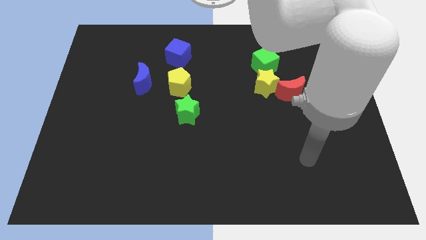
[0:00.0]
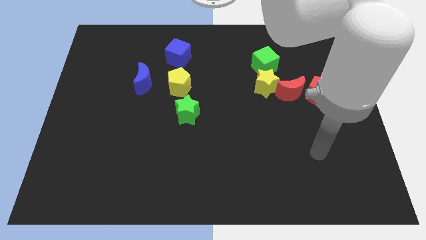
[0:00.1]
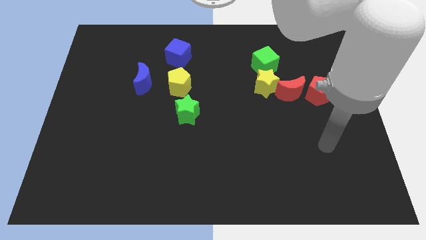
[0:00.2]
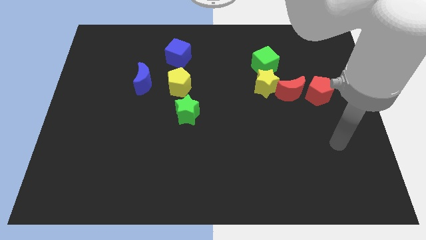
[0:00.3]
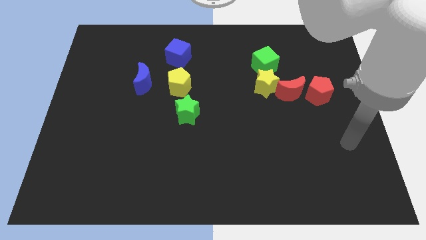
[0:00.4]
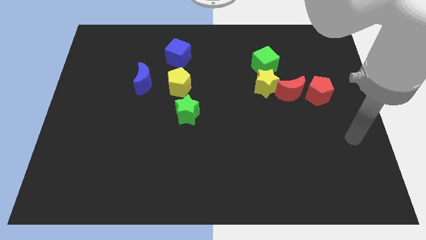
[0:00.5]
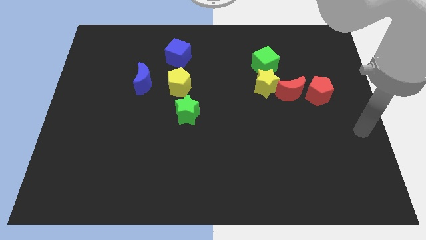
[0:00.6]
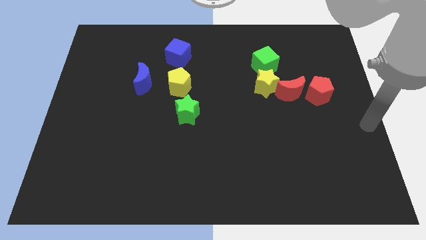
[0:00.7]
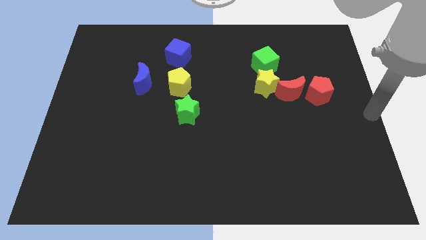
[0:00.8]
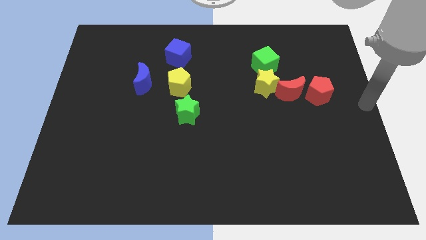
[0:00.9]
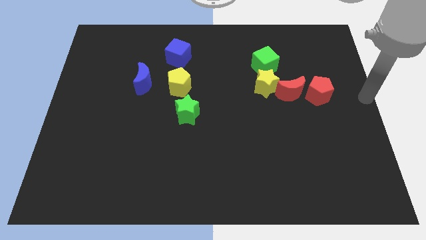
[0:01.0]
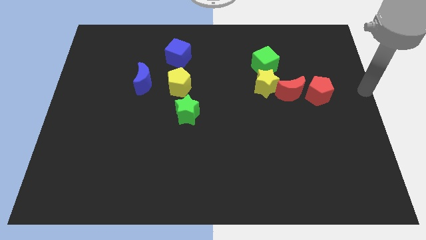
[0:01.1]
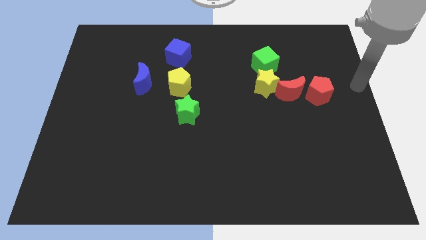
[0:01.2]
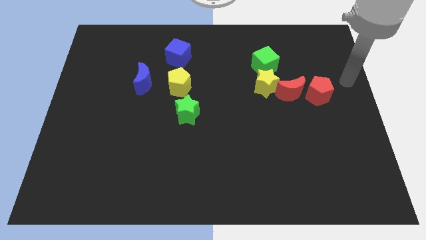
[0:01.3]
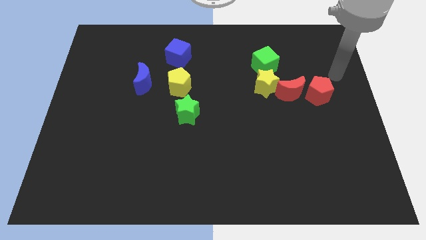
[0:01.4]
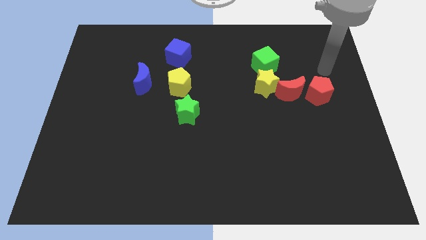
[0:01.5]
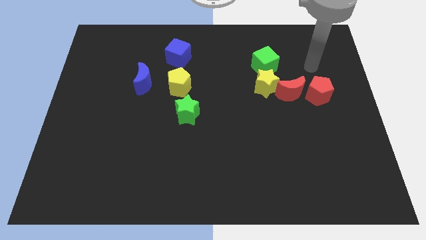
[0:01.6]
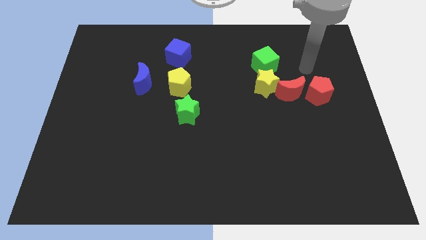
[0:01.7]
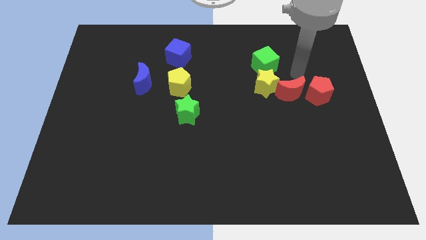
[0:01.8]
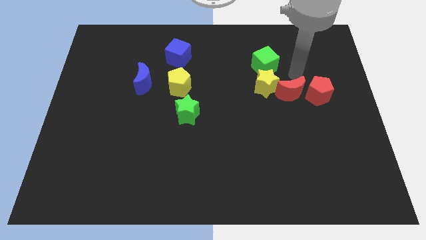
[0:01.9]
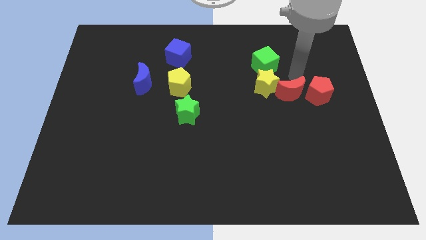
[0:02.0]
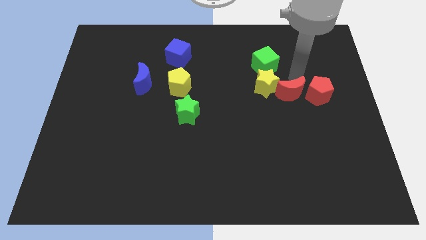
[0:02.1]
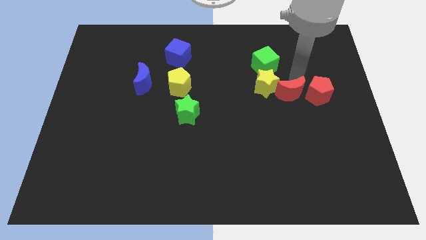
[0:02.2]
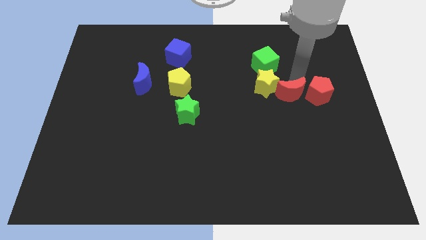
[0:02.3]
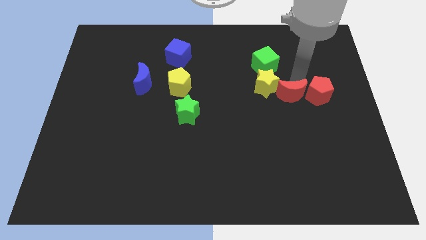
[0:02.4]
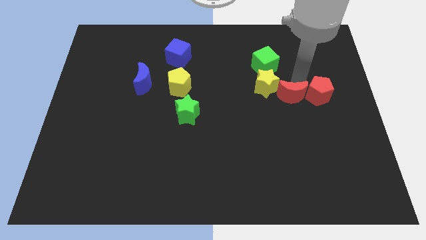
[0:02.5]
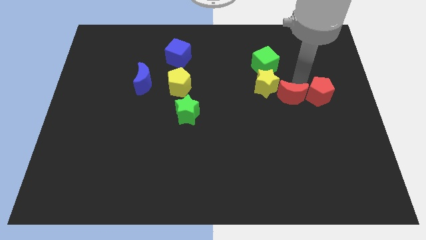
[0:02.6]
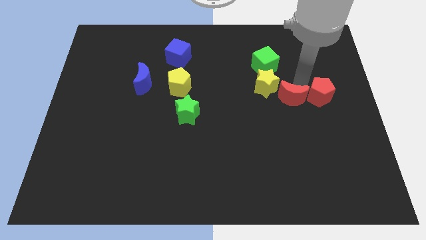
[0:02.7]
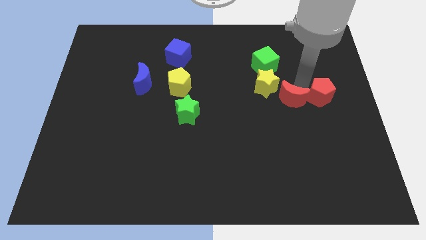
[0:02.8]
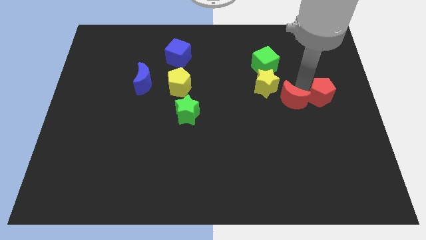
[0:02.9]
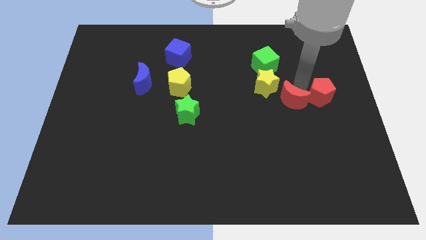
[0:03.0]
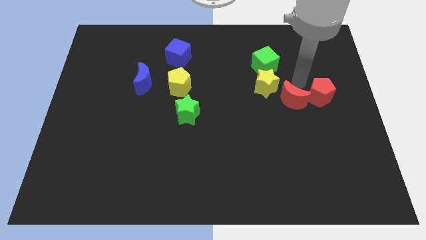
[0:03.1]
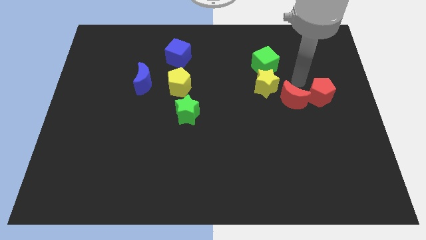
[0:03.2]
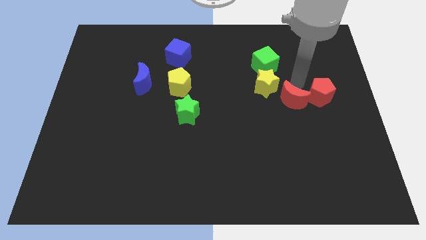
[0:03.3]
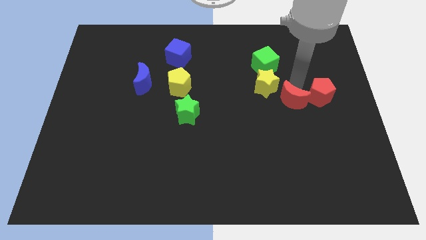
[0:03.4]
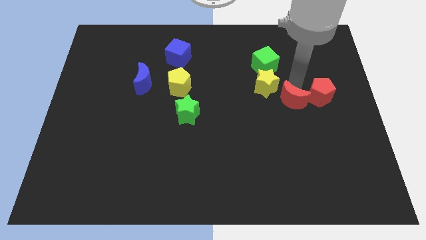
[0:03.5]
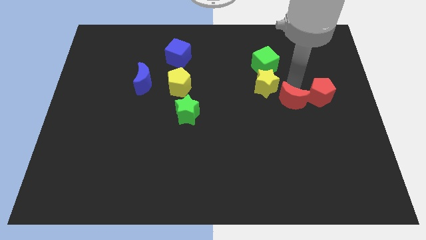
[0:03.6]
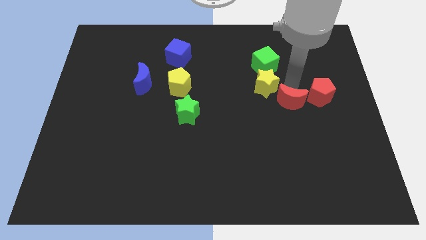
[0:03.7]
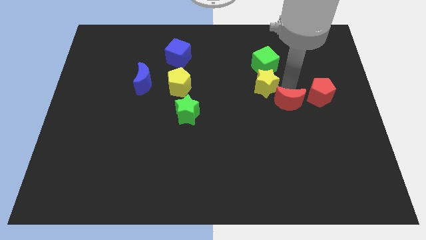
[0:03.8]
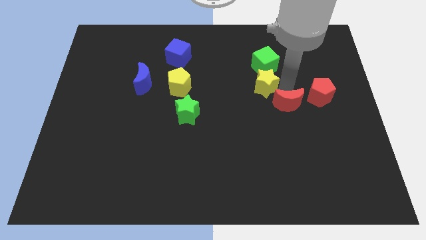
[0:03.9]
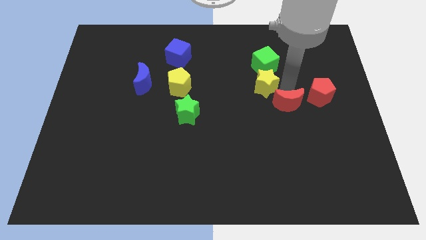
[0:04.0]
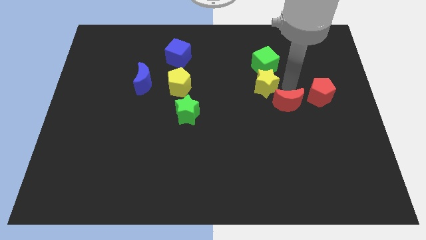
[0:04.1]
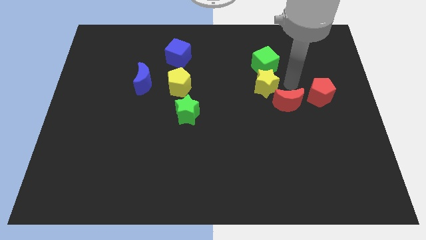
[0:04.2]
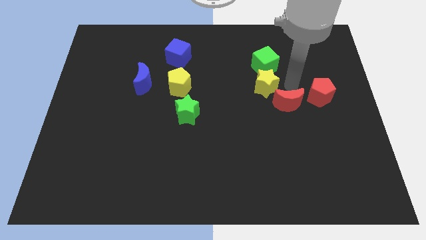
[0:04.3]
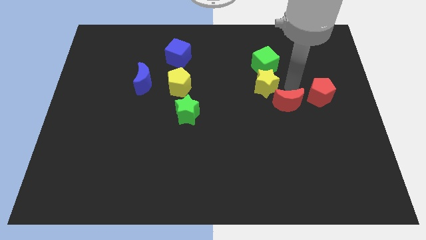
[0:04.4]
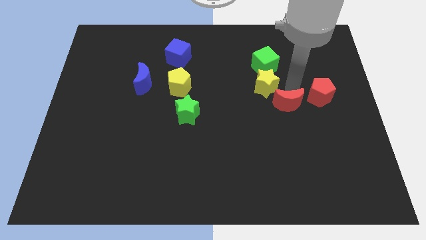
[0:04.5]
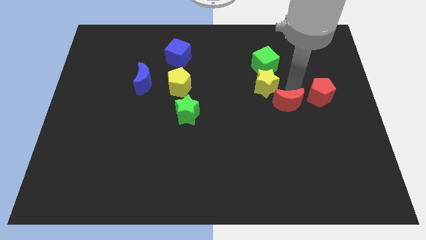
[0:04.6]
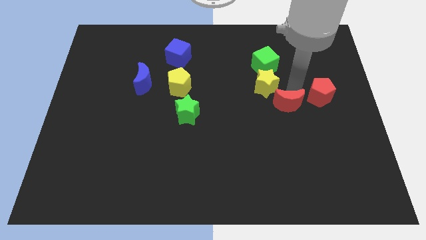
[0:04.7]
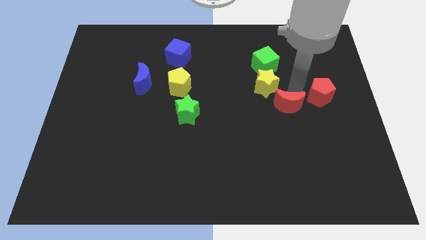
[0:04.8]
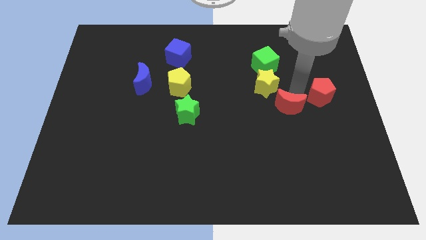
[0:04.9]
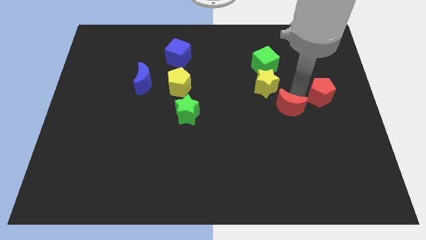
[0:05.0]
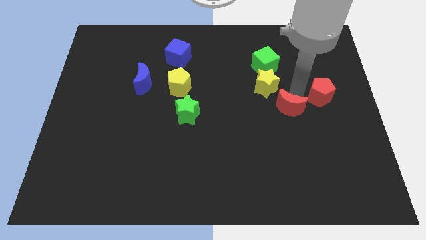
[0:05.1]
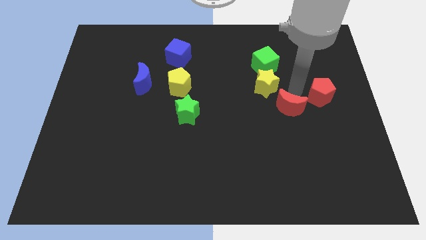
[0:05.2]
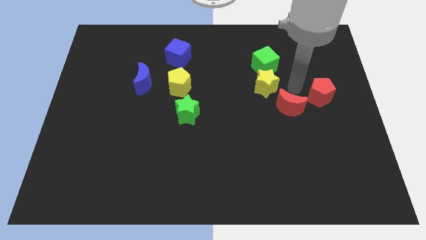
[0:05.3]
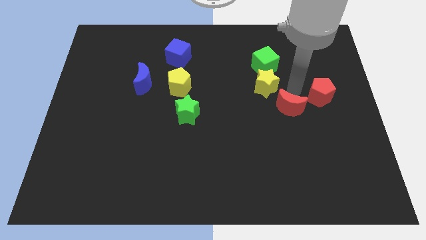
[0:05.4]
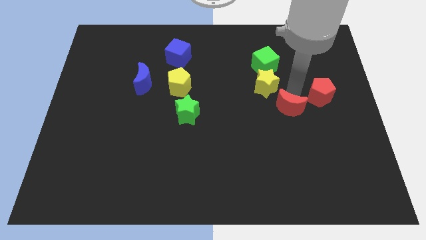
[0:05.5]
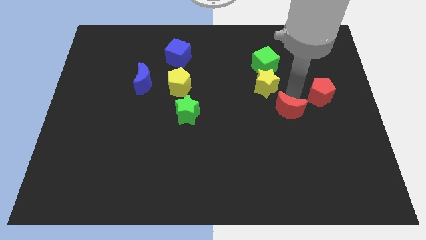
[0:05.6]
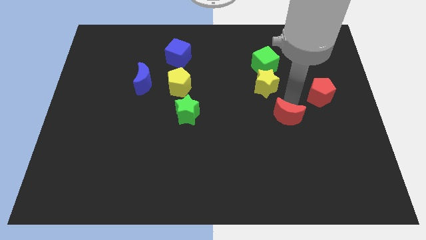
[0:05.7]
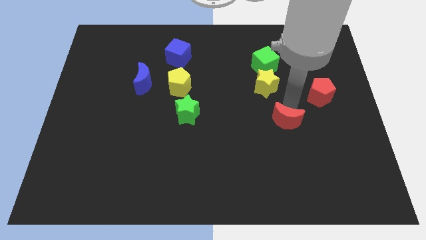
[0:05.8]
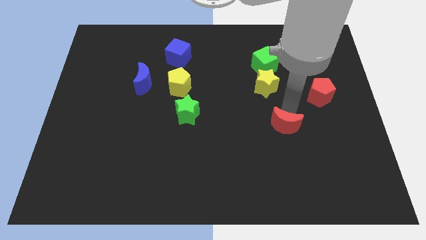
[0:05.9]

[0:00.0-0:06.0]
separate the red moon from the yellow star and red pentagon

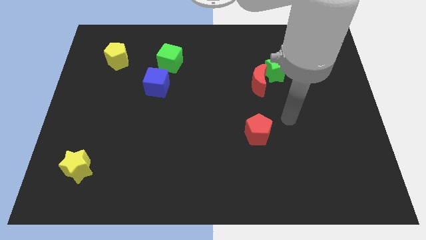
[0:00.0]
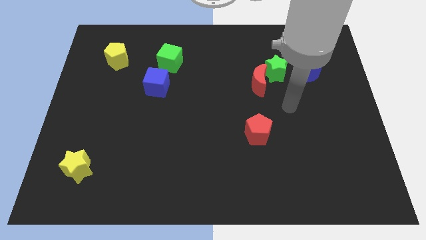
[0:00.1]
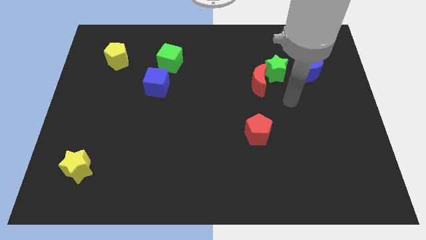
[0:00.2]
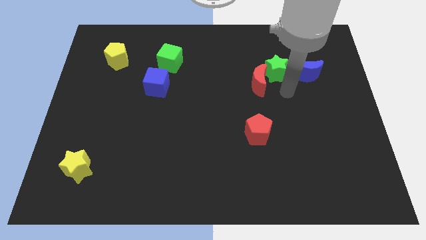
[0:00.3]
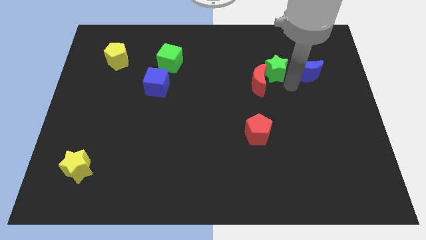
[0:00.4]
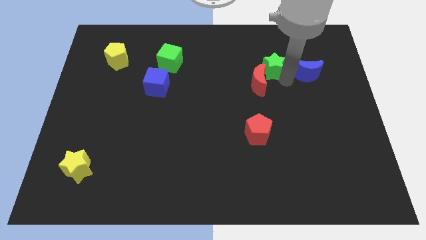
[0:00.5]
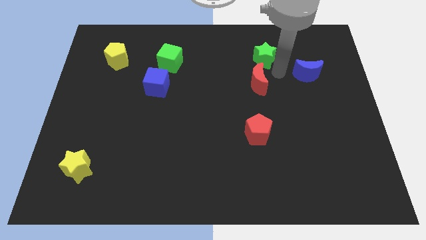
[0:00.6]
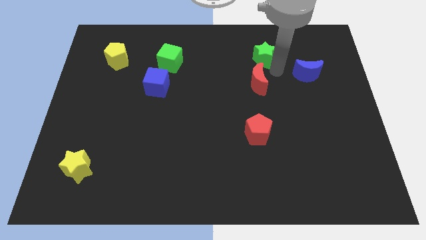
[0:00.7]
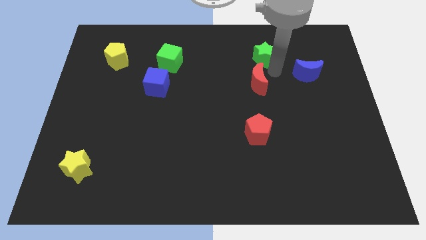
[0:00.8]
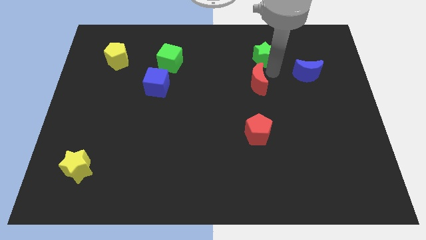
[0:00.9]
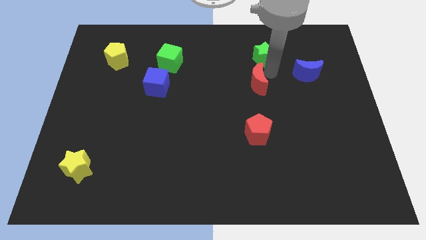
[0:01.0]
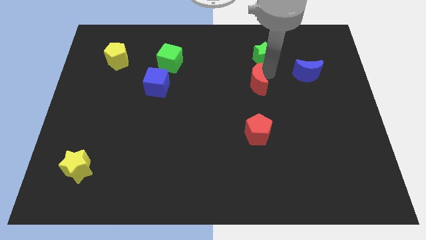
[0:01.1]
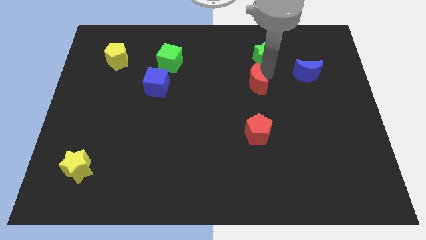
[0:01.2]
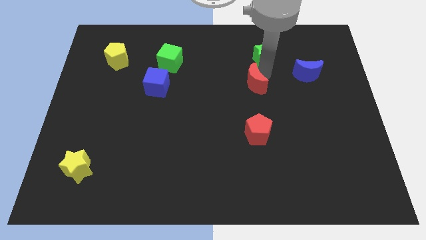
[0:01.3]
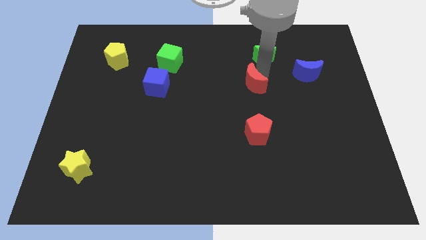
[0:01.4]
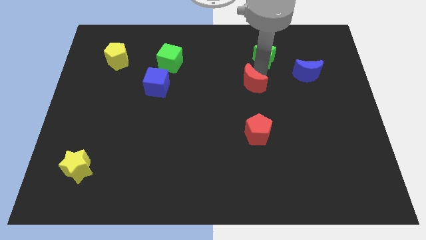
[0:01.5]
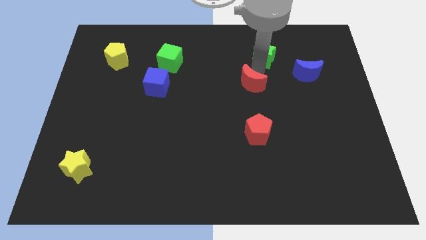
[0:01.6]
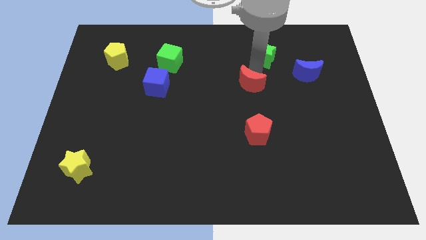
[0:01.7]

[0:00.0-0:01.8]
move the red moon away from the green star

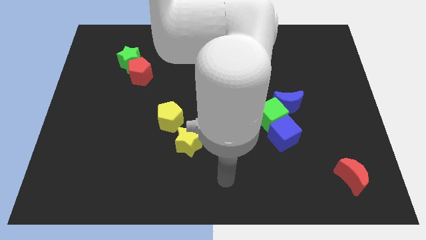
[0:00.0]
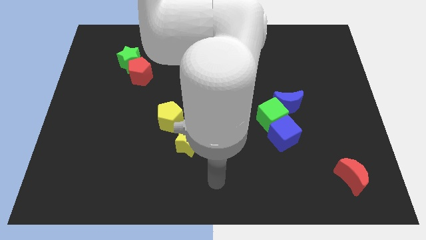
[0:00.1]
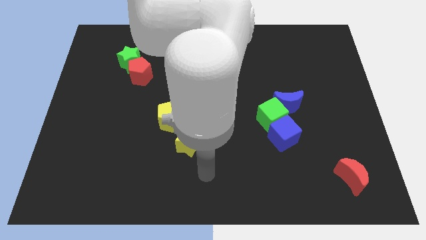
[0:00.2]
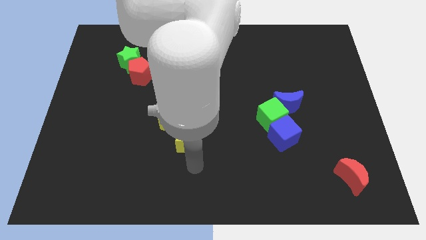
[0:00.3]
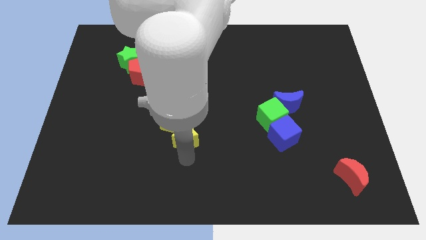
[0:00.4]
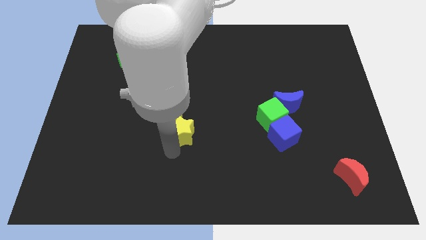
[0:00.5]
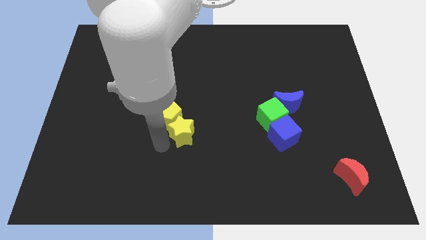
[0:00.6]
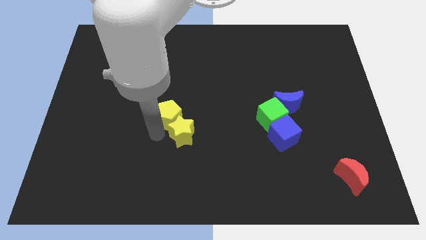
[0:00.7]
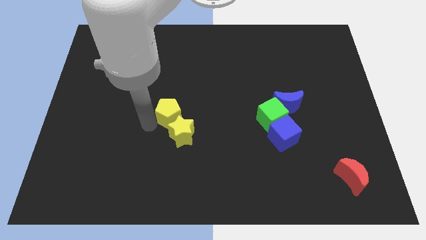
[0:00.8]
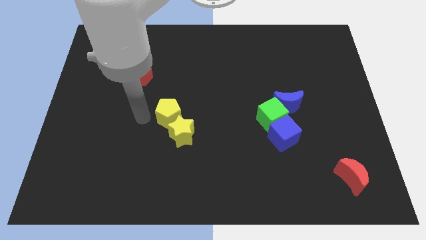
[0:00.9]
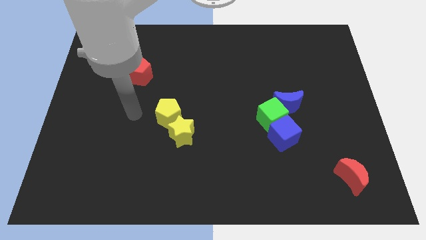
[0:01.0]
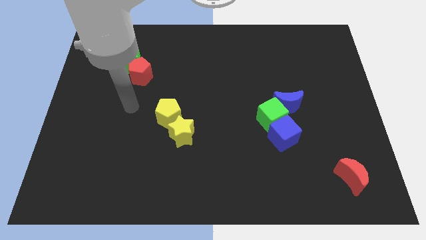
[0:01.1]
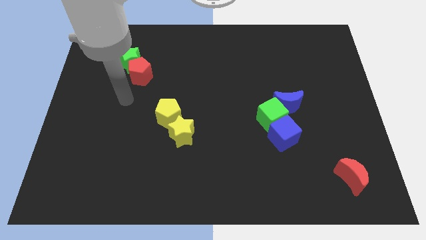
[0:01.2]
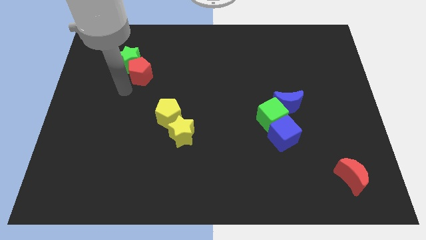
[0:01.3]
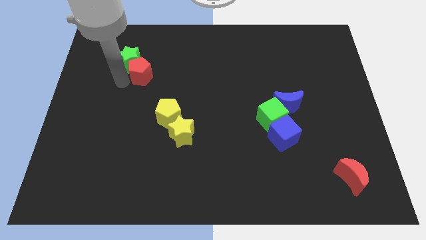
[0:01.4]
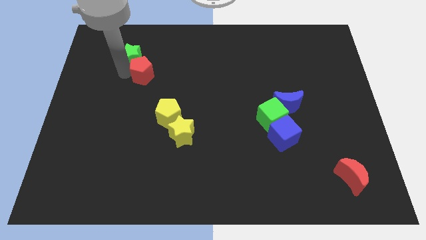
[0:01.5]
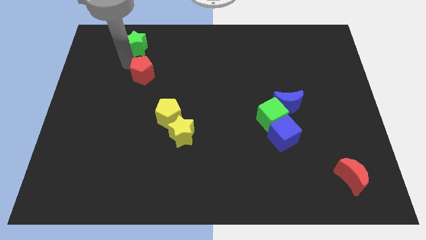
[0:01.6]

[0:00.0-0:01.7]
separate the red pentagon from the green star
